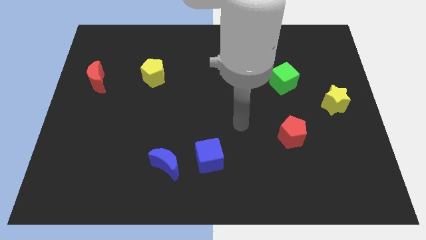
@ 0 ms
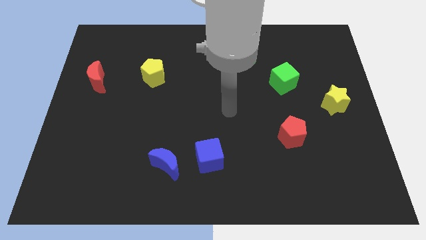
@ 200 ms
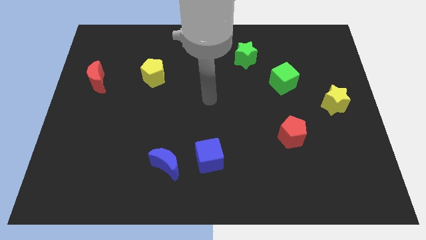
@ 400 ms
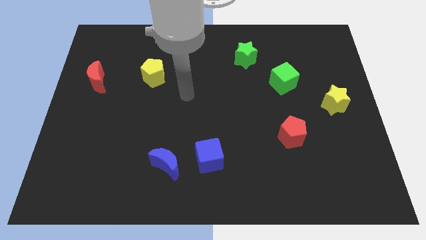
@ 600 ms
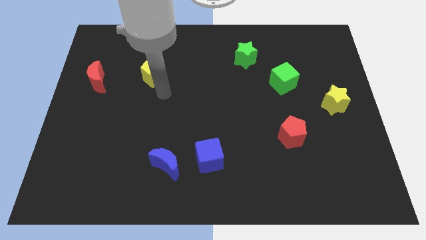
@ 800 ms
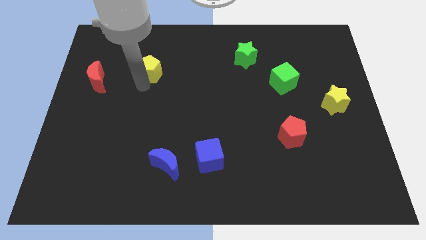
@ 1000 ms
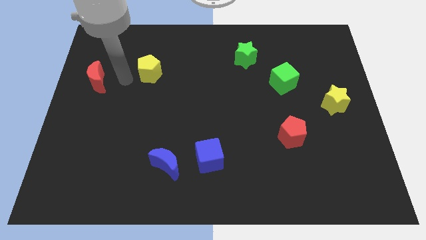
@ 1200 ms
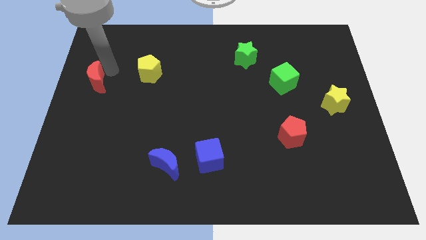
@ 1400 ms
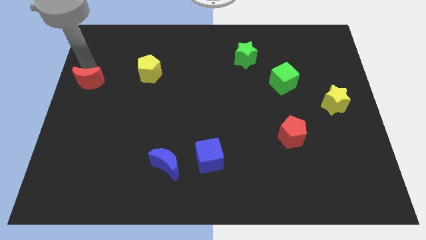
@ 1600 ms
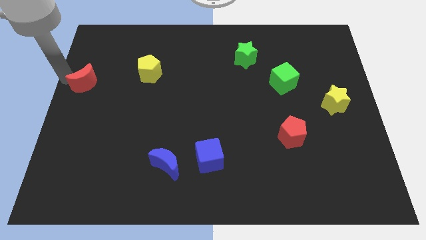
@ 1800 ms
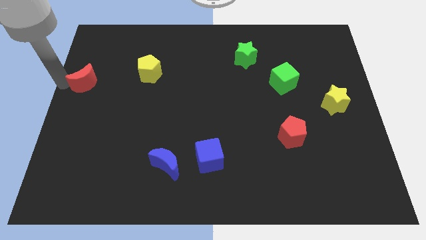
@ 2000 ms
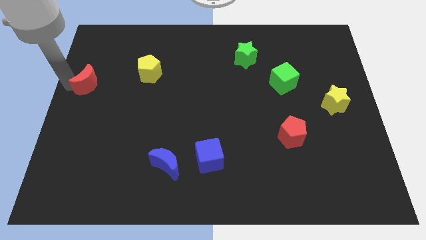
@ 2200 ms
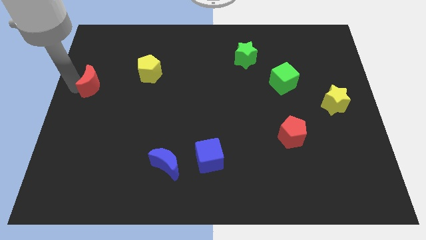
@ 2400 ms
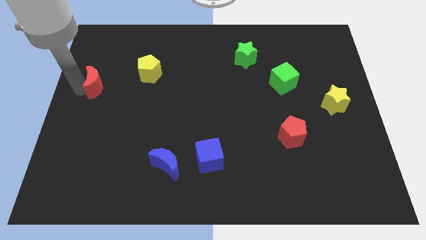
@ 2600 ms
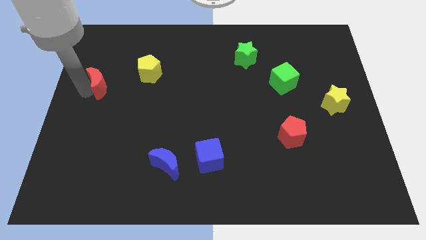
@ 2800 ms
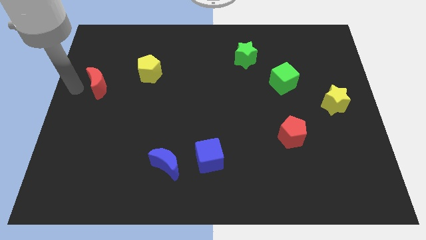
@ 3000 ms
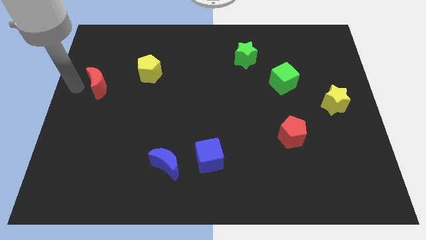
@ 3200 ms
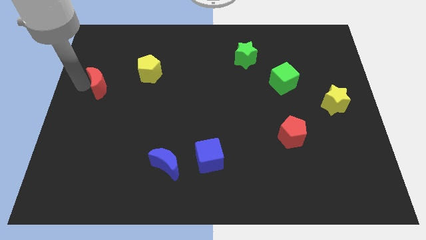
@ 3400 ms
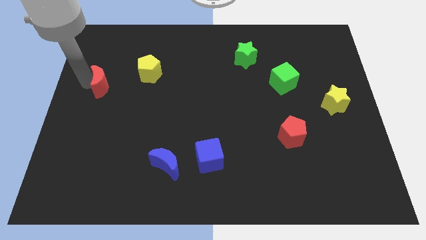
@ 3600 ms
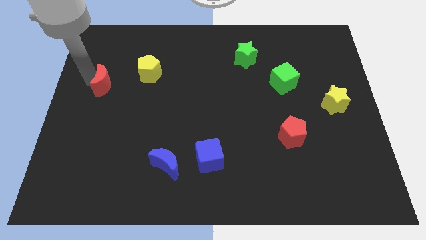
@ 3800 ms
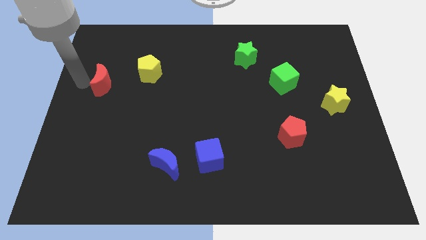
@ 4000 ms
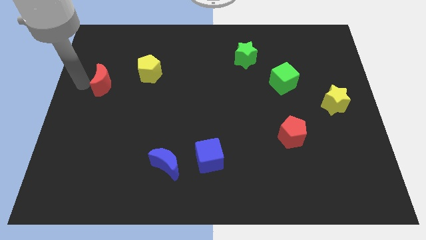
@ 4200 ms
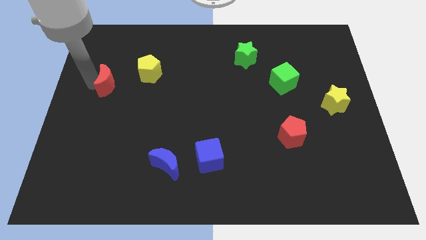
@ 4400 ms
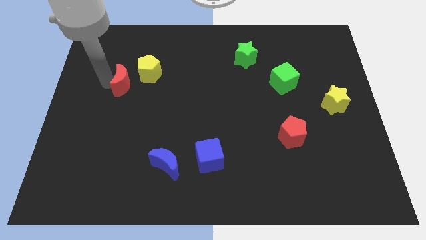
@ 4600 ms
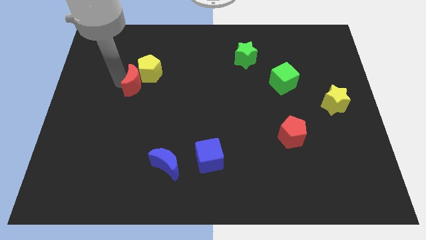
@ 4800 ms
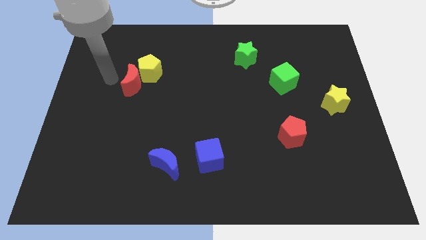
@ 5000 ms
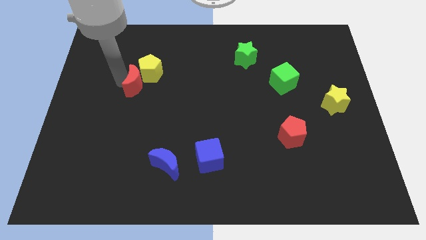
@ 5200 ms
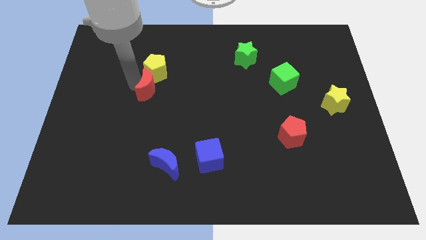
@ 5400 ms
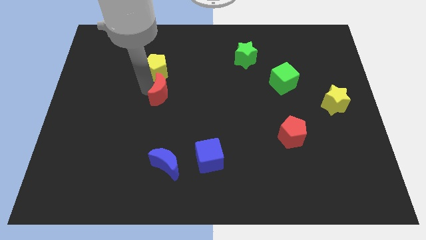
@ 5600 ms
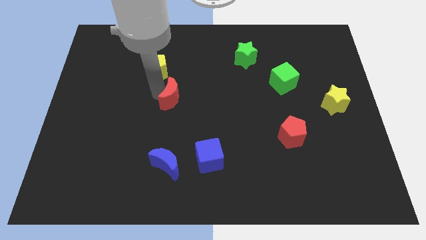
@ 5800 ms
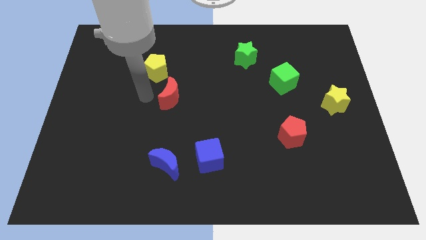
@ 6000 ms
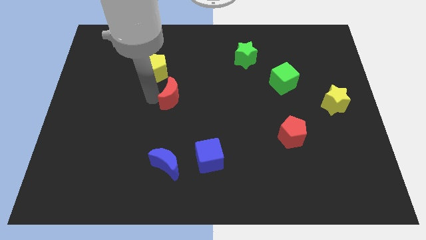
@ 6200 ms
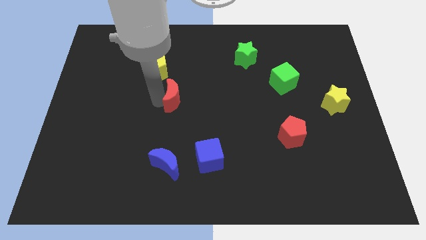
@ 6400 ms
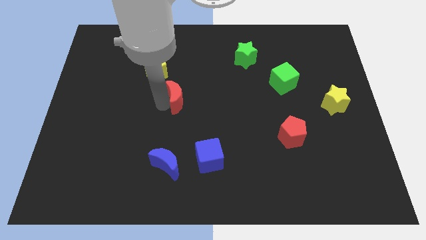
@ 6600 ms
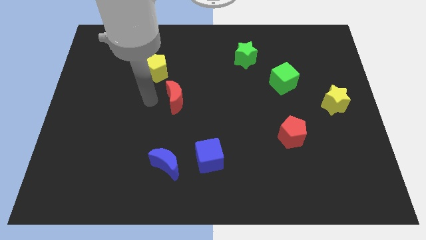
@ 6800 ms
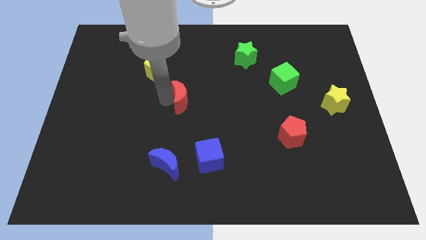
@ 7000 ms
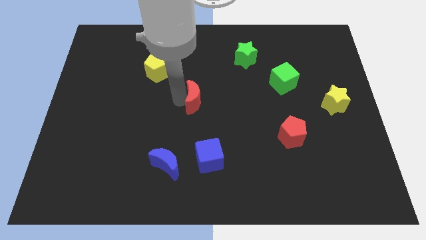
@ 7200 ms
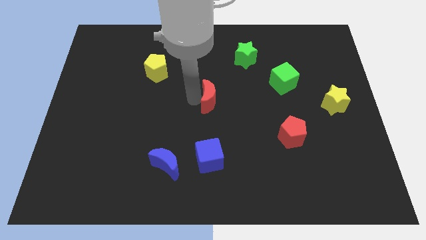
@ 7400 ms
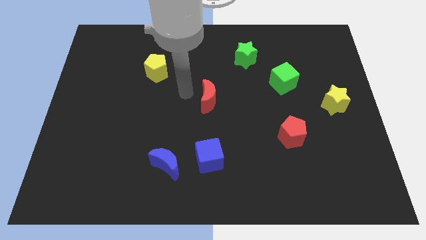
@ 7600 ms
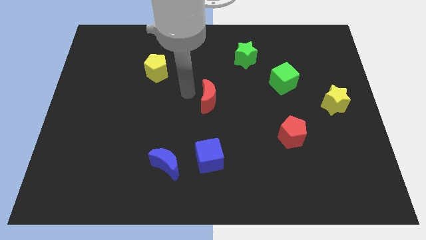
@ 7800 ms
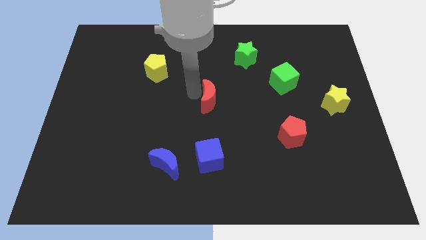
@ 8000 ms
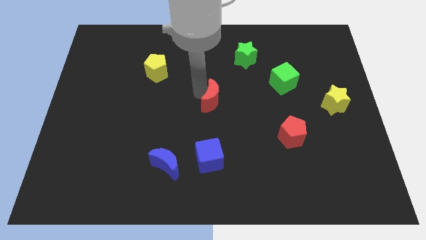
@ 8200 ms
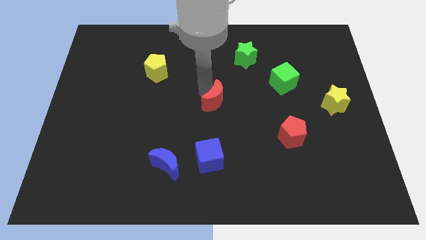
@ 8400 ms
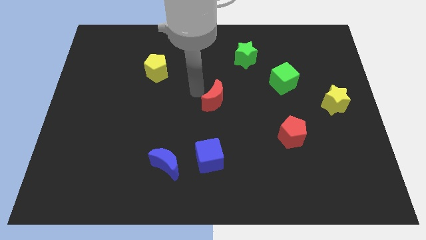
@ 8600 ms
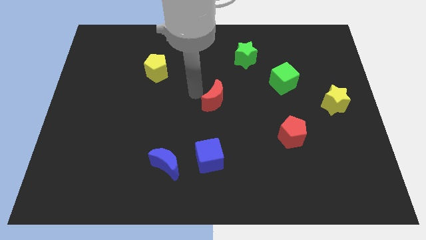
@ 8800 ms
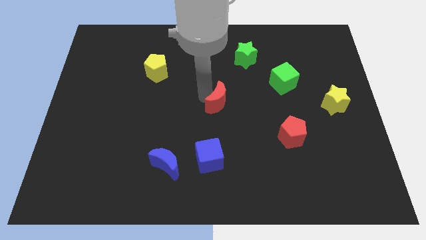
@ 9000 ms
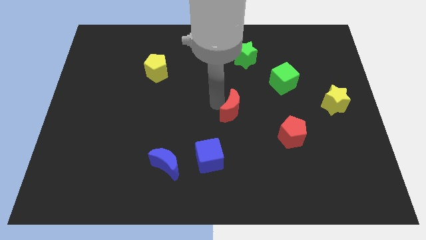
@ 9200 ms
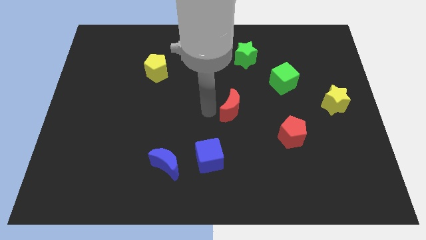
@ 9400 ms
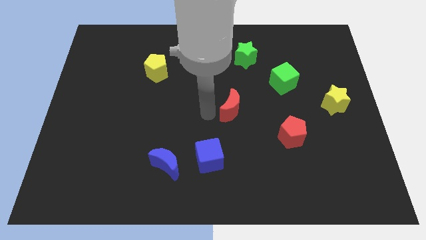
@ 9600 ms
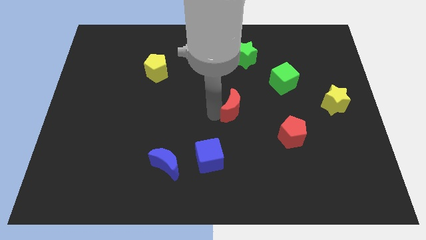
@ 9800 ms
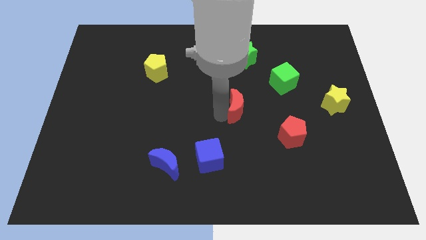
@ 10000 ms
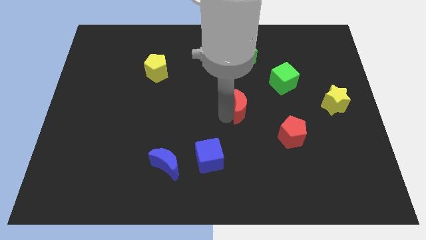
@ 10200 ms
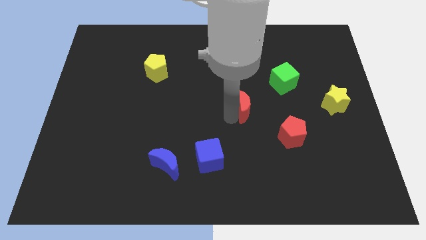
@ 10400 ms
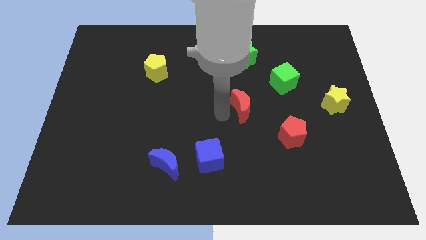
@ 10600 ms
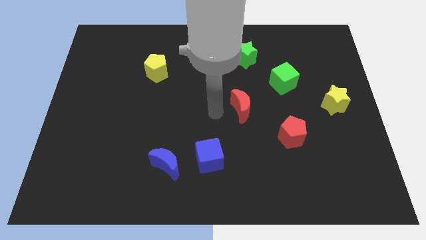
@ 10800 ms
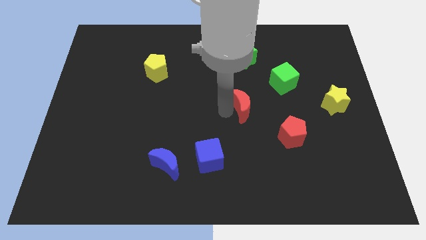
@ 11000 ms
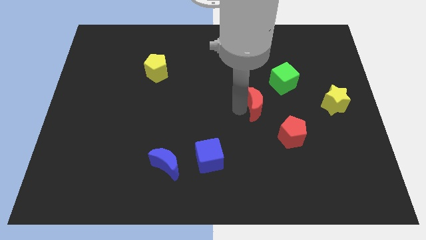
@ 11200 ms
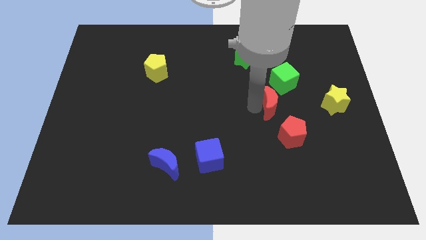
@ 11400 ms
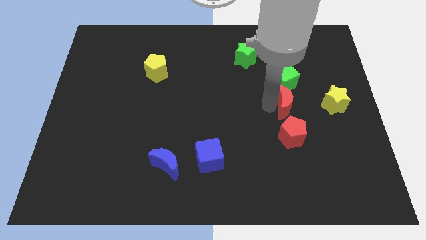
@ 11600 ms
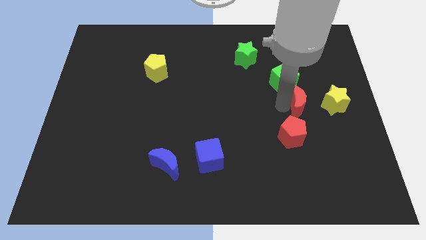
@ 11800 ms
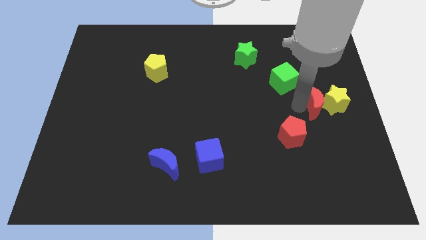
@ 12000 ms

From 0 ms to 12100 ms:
slide the red moon towards the yellow star

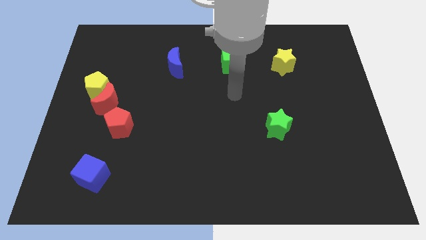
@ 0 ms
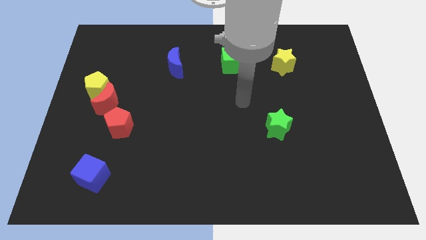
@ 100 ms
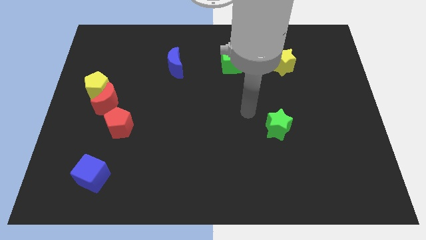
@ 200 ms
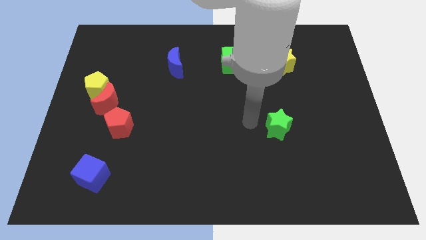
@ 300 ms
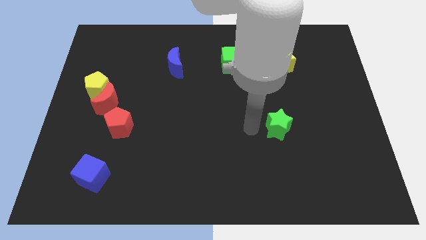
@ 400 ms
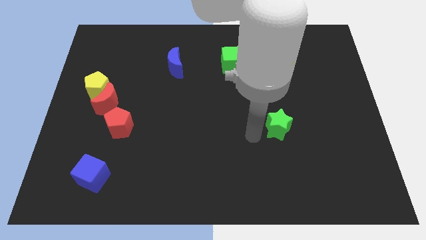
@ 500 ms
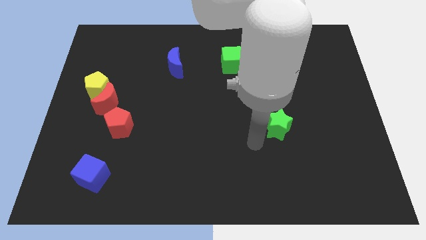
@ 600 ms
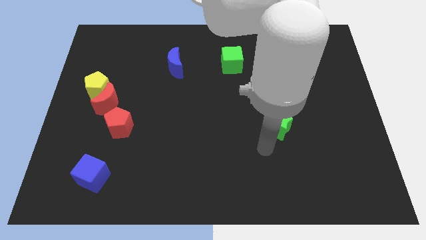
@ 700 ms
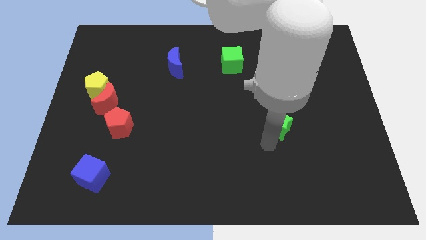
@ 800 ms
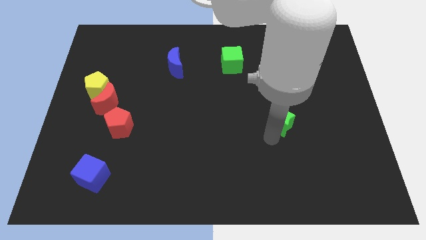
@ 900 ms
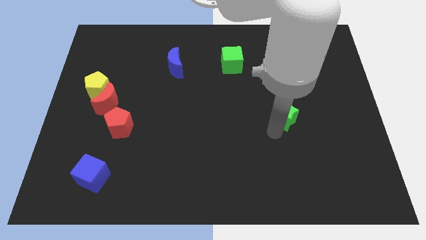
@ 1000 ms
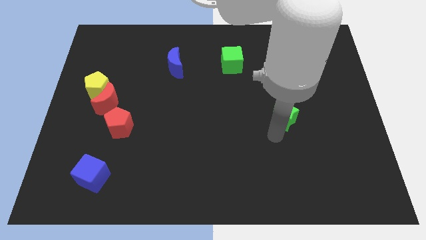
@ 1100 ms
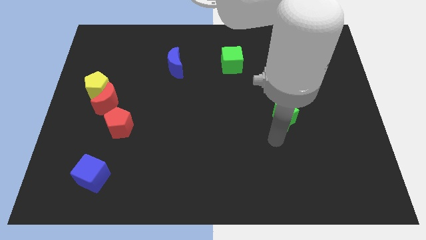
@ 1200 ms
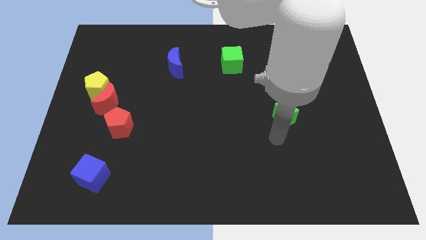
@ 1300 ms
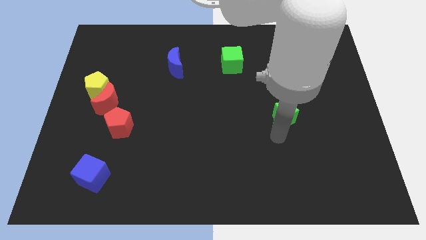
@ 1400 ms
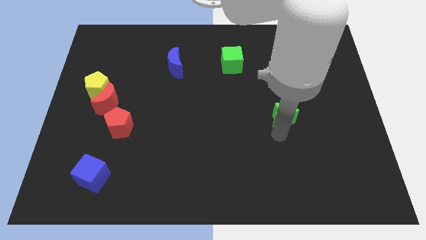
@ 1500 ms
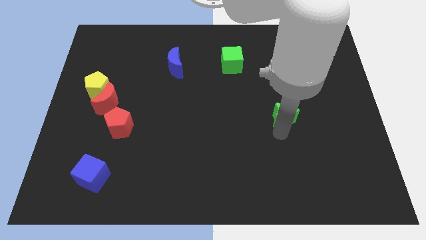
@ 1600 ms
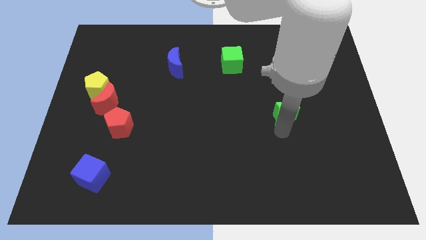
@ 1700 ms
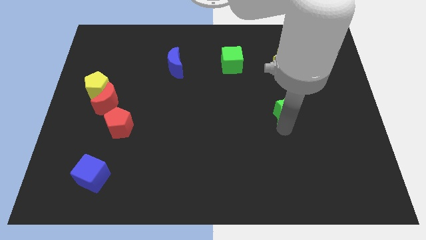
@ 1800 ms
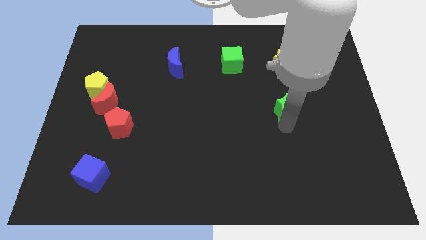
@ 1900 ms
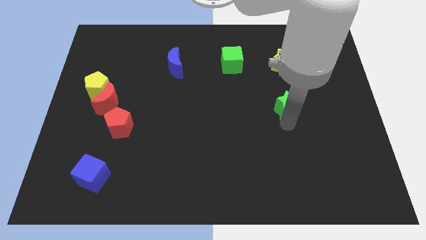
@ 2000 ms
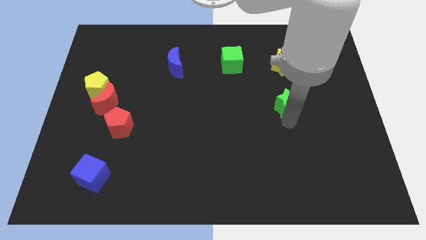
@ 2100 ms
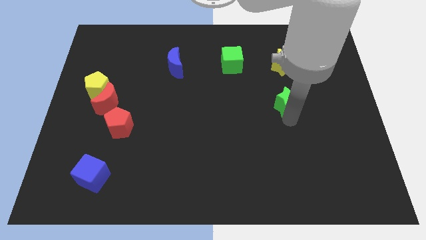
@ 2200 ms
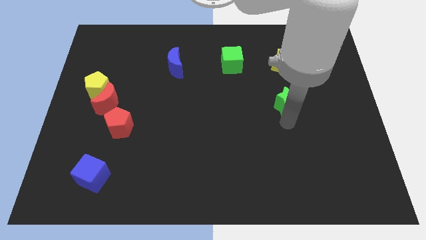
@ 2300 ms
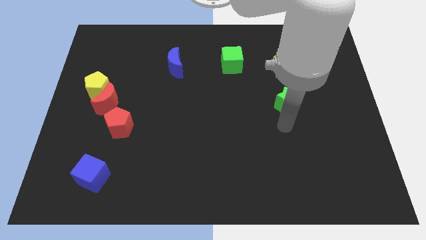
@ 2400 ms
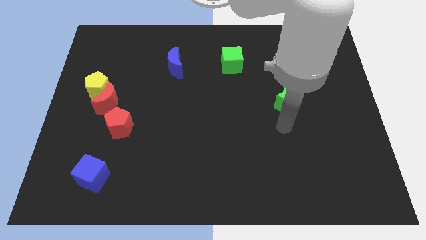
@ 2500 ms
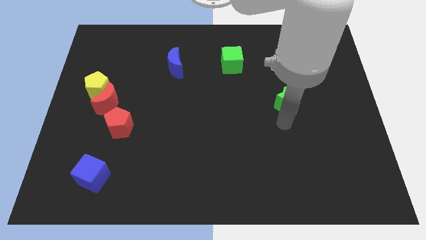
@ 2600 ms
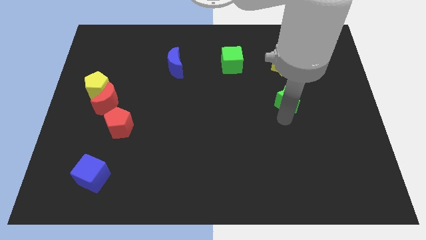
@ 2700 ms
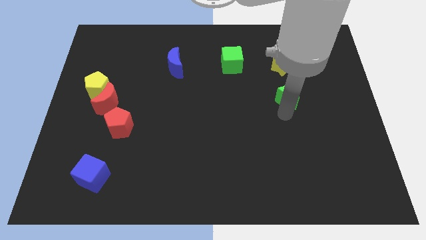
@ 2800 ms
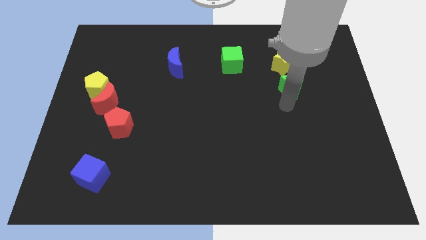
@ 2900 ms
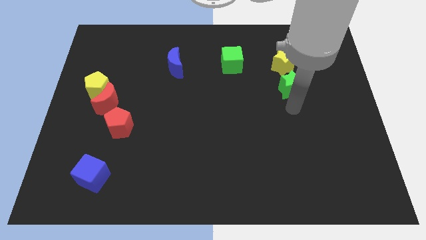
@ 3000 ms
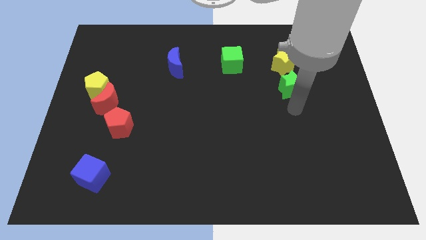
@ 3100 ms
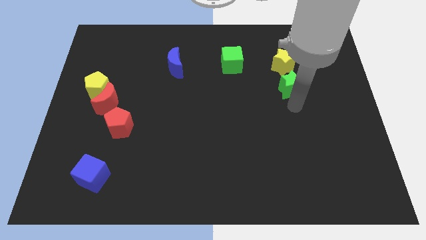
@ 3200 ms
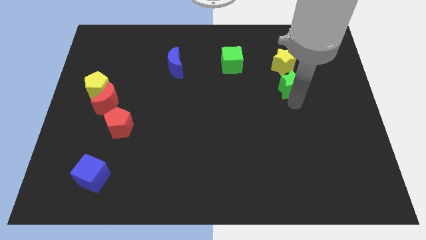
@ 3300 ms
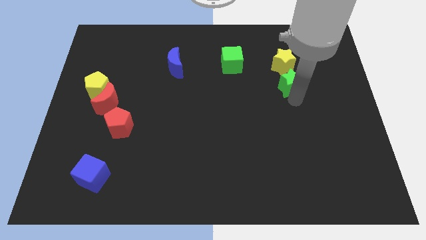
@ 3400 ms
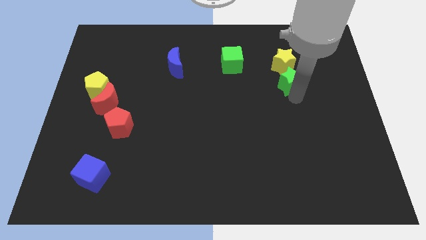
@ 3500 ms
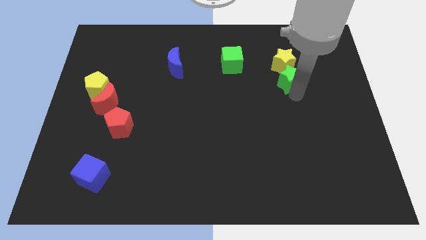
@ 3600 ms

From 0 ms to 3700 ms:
slide the green star close to the yellow star
